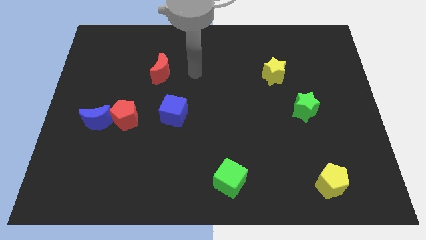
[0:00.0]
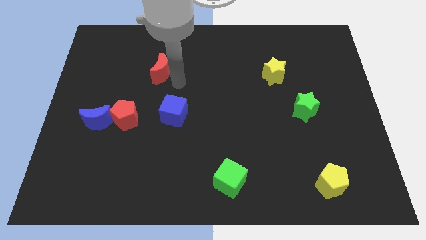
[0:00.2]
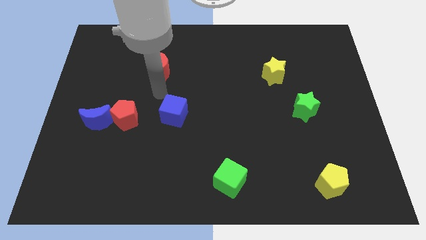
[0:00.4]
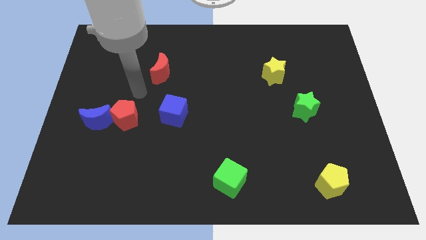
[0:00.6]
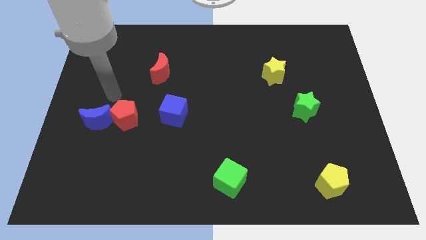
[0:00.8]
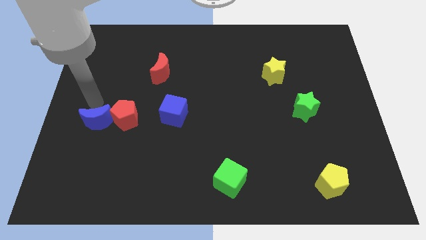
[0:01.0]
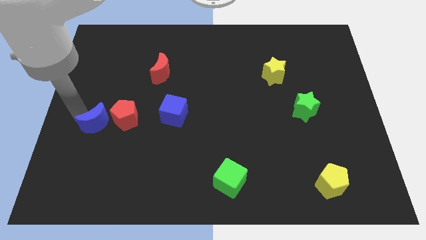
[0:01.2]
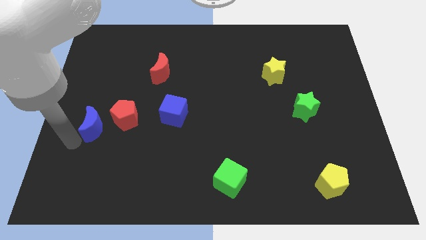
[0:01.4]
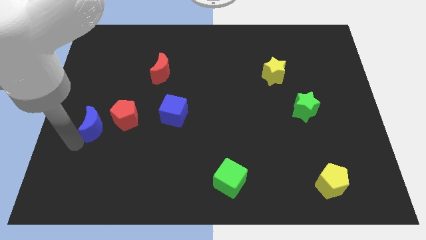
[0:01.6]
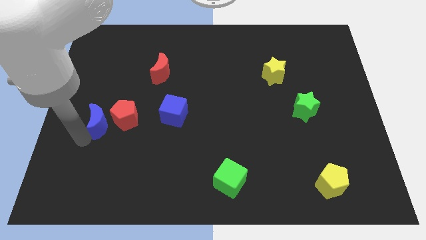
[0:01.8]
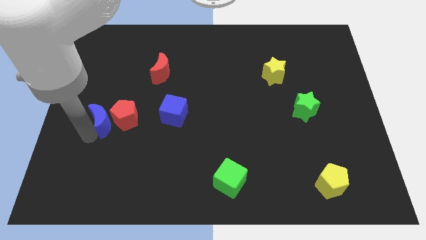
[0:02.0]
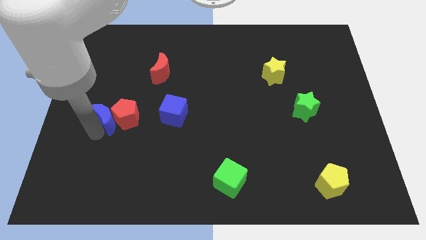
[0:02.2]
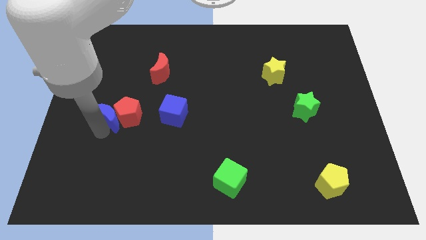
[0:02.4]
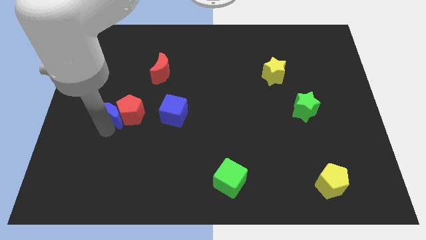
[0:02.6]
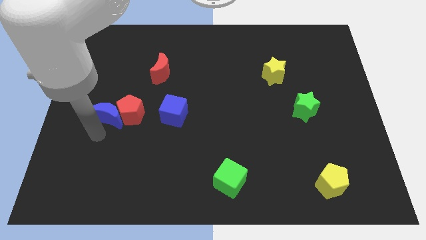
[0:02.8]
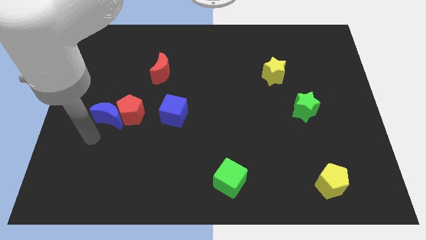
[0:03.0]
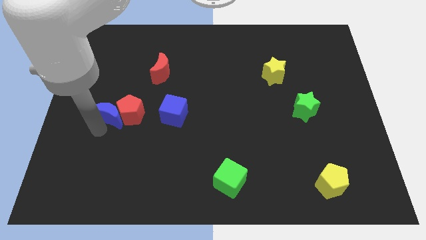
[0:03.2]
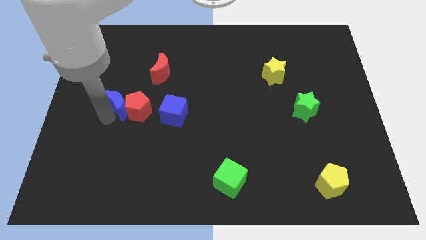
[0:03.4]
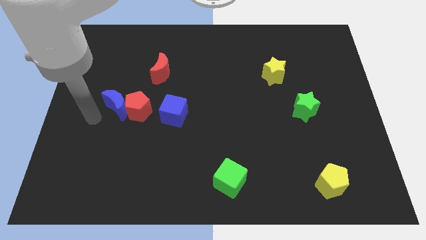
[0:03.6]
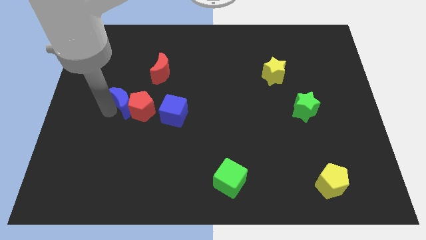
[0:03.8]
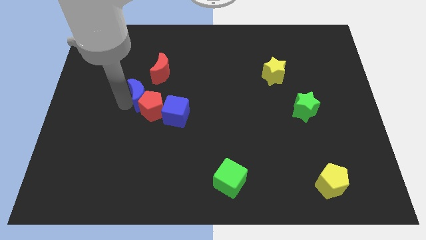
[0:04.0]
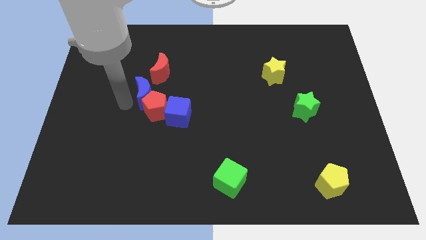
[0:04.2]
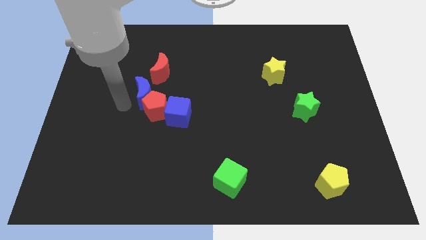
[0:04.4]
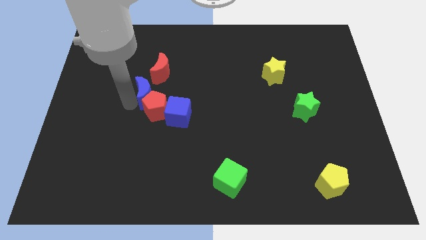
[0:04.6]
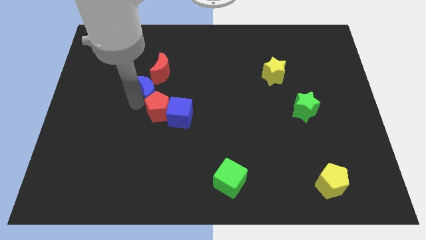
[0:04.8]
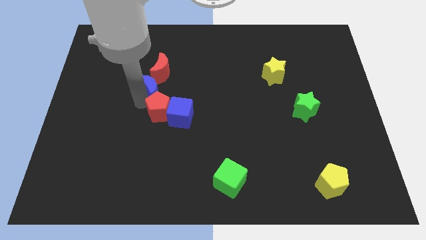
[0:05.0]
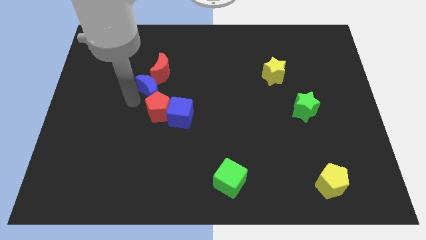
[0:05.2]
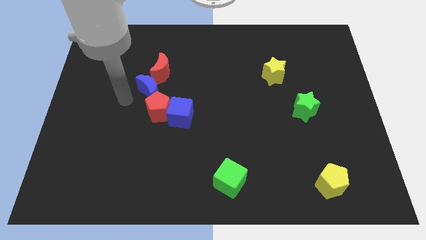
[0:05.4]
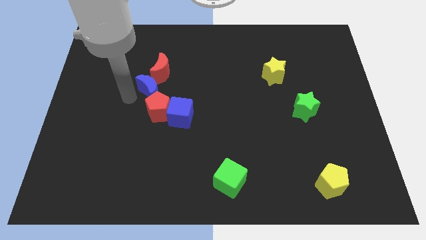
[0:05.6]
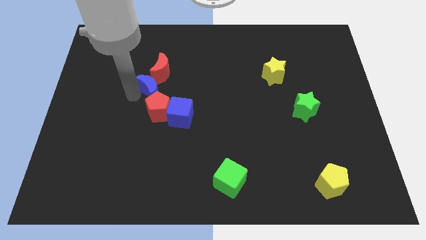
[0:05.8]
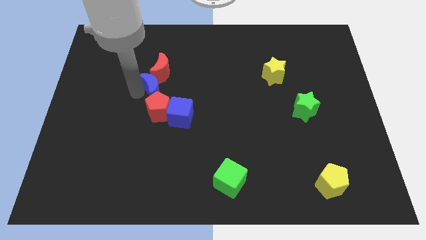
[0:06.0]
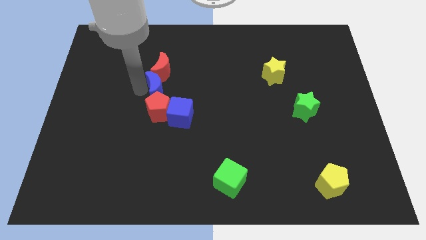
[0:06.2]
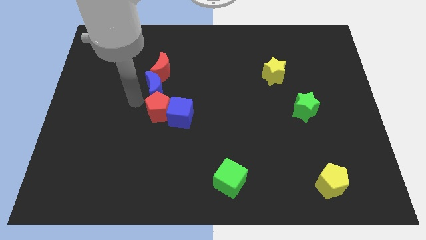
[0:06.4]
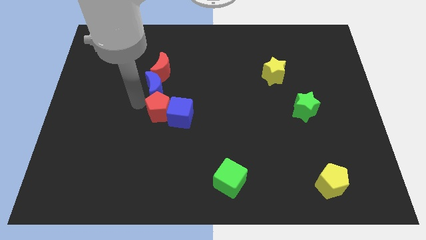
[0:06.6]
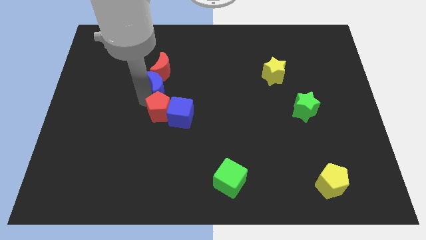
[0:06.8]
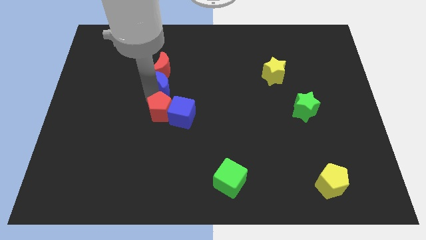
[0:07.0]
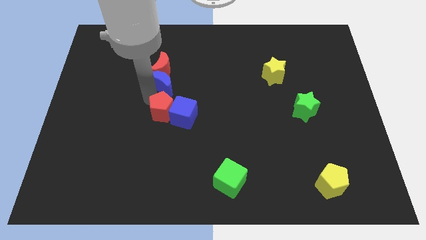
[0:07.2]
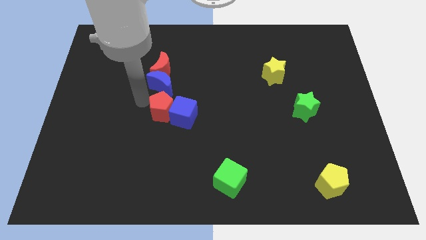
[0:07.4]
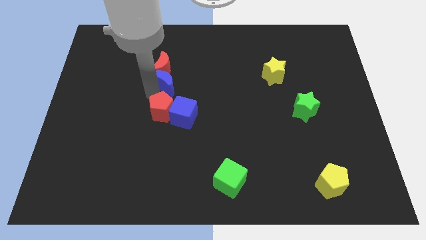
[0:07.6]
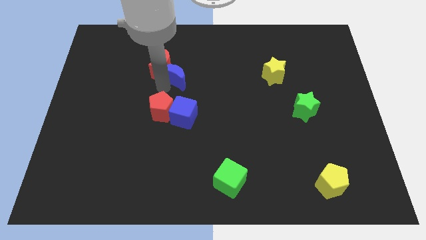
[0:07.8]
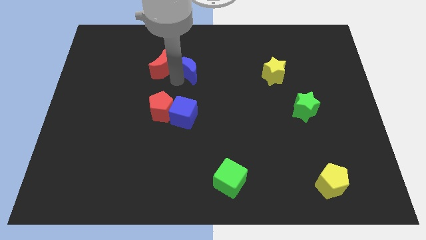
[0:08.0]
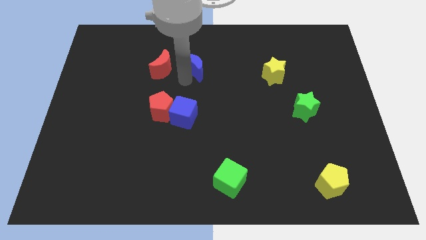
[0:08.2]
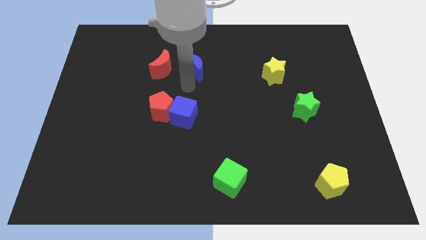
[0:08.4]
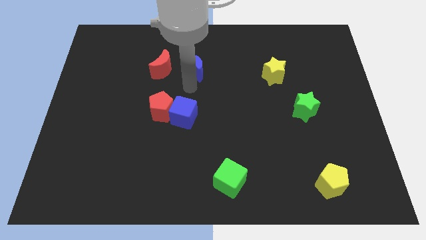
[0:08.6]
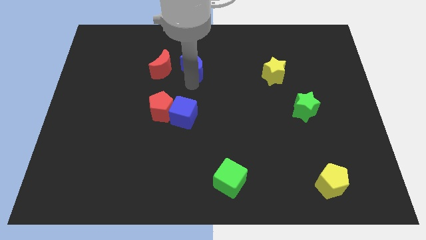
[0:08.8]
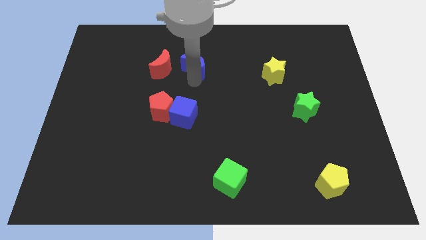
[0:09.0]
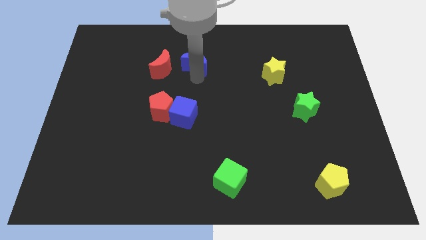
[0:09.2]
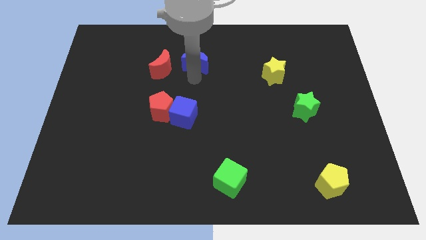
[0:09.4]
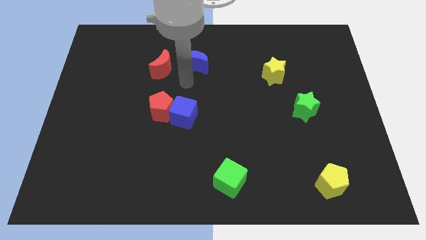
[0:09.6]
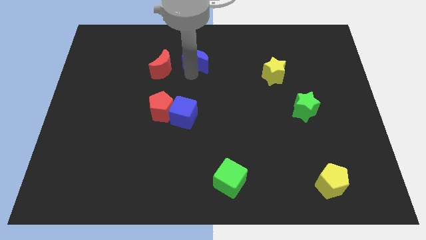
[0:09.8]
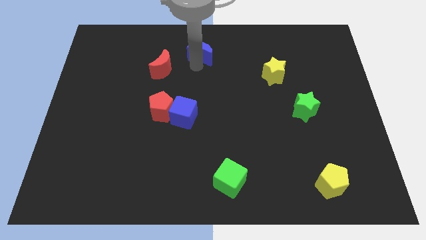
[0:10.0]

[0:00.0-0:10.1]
put the blue moon to the top

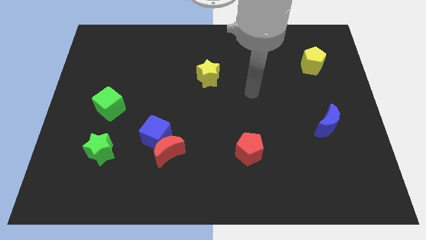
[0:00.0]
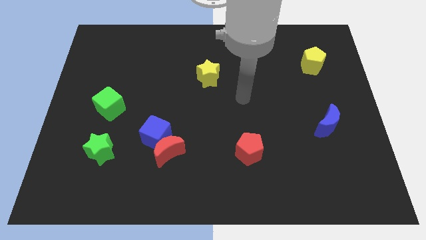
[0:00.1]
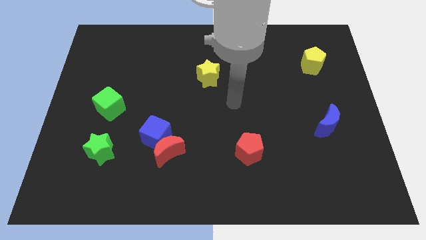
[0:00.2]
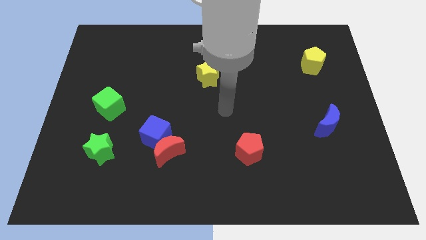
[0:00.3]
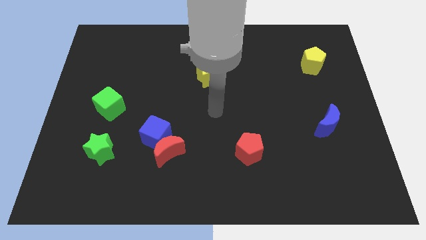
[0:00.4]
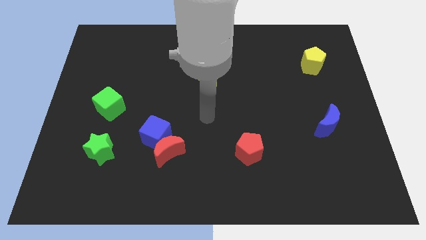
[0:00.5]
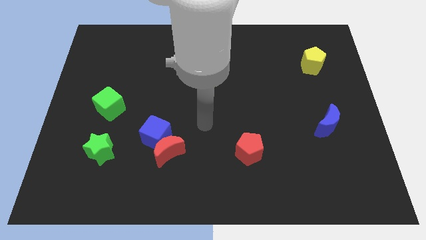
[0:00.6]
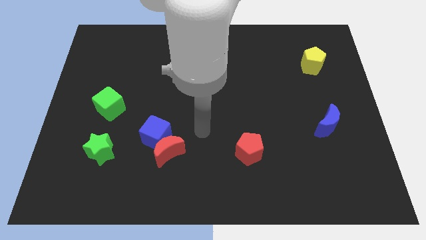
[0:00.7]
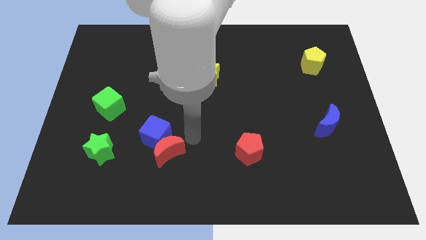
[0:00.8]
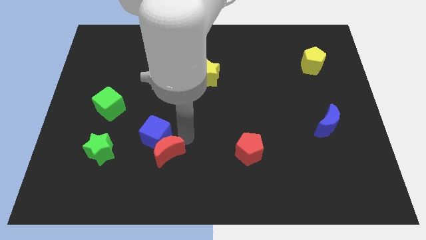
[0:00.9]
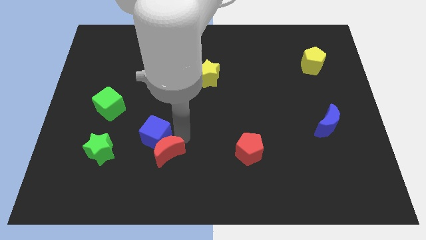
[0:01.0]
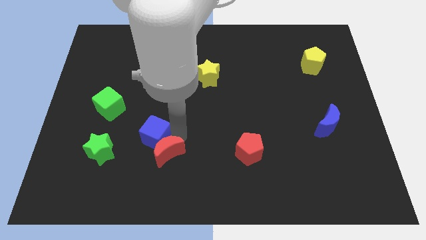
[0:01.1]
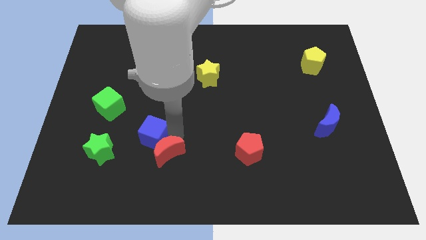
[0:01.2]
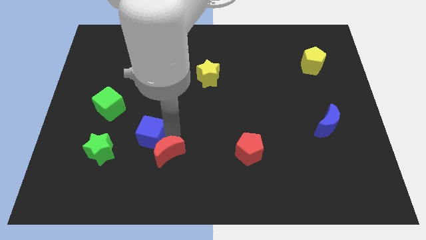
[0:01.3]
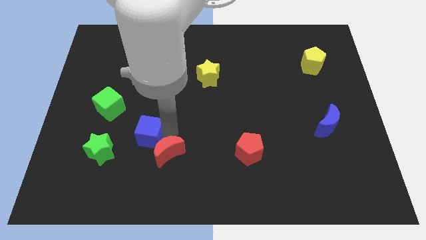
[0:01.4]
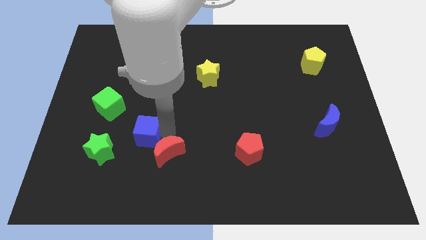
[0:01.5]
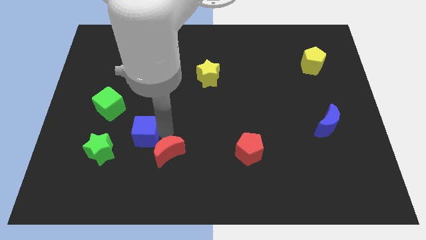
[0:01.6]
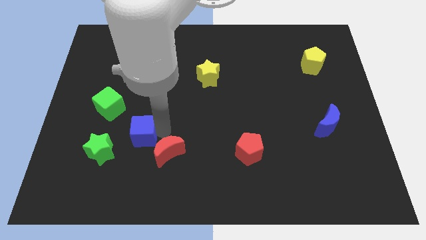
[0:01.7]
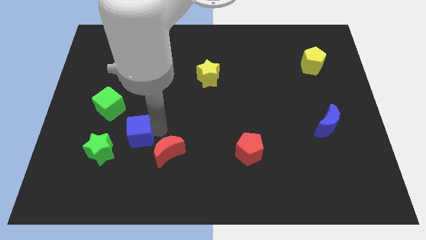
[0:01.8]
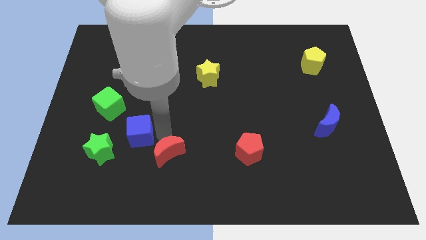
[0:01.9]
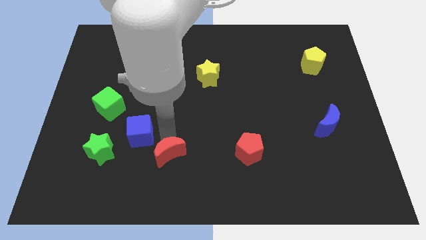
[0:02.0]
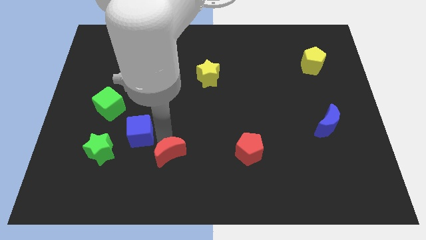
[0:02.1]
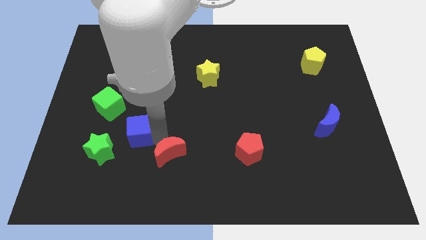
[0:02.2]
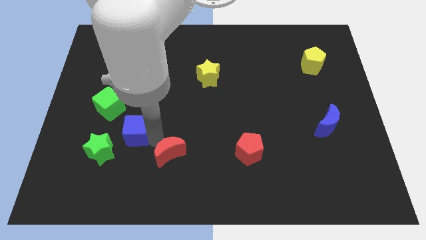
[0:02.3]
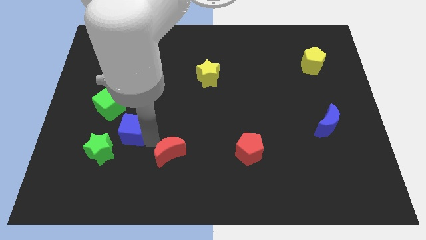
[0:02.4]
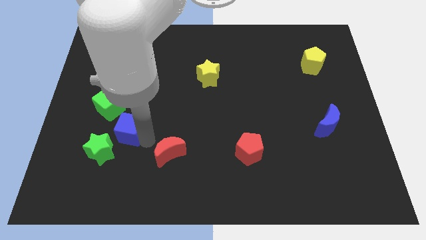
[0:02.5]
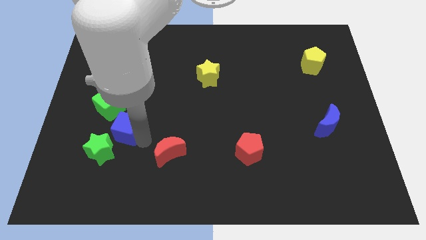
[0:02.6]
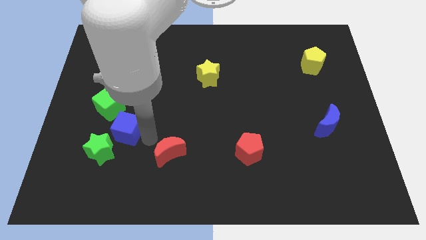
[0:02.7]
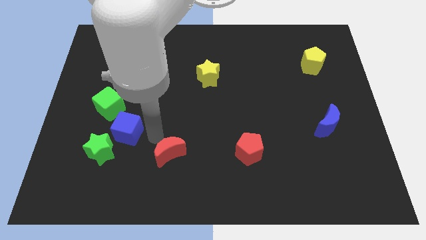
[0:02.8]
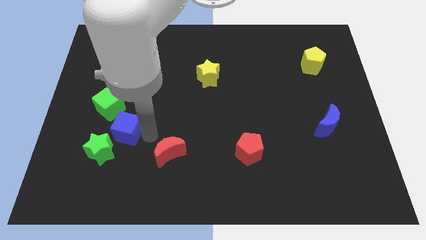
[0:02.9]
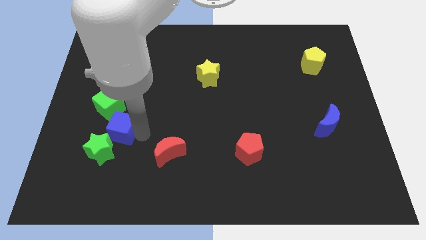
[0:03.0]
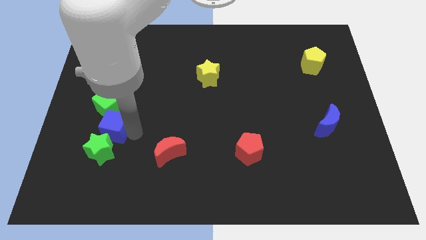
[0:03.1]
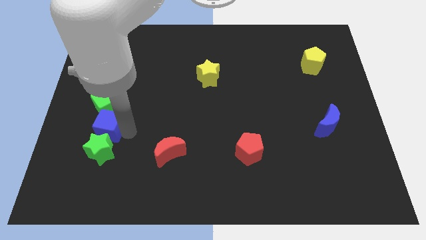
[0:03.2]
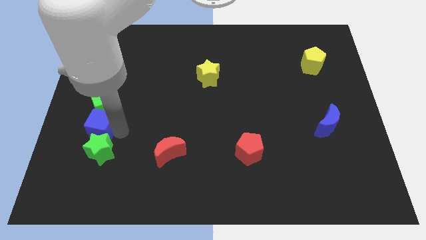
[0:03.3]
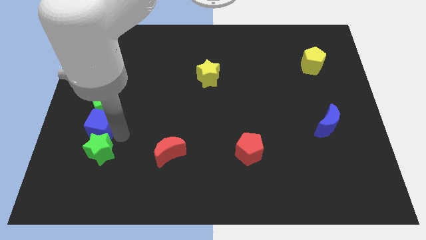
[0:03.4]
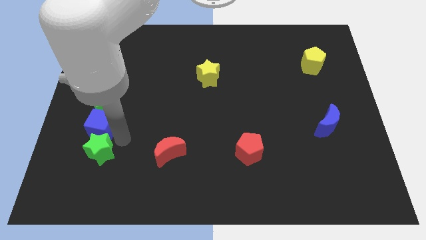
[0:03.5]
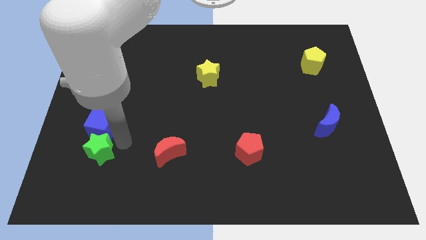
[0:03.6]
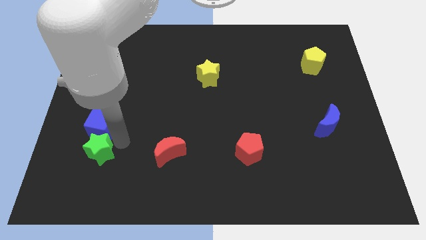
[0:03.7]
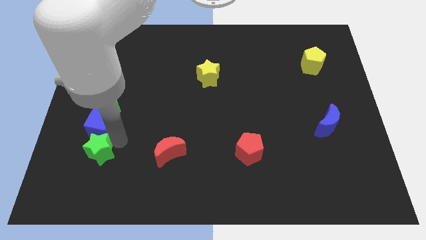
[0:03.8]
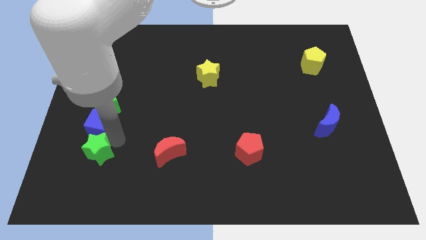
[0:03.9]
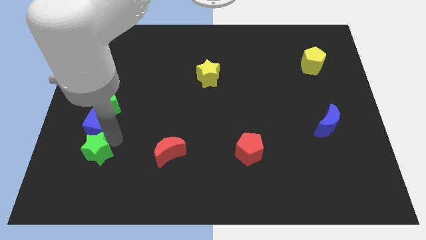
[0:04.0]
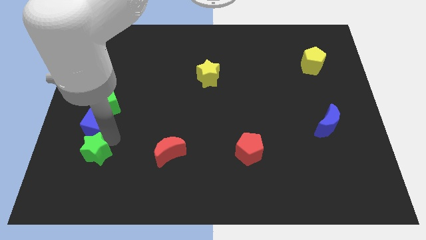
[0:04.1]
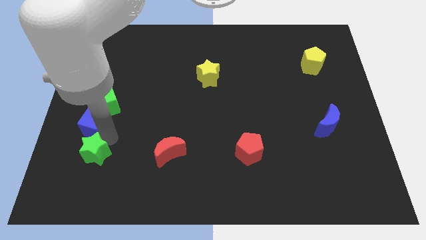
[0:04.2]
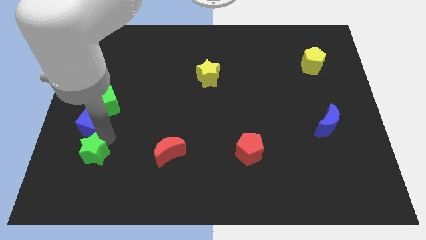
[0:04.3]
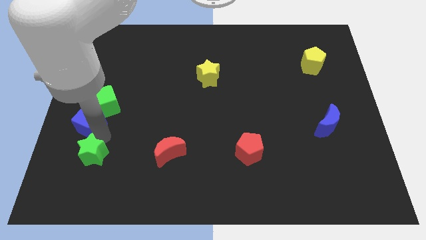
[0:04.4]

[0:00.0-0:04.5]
put the blue cube to the left side of the board
